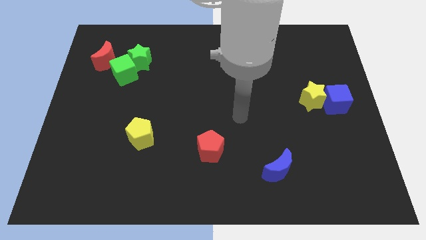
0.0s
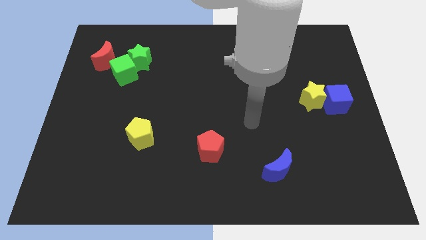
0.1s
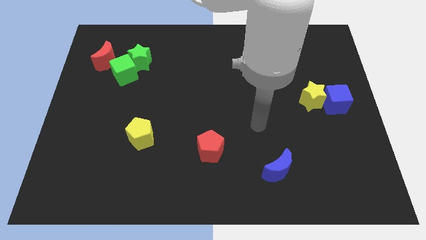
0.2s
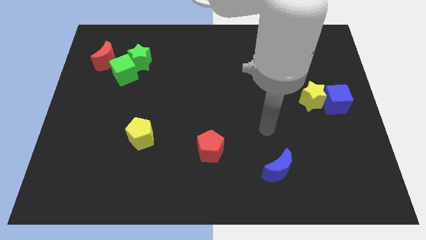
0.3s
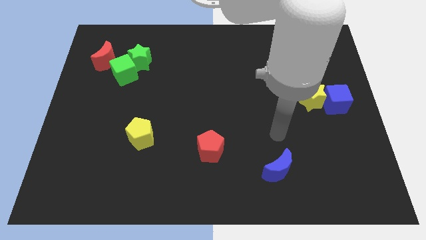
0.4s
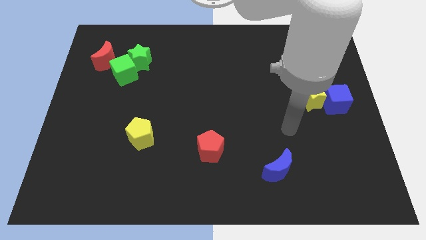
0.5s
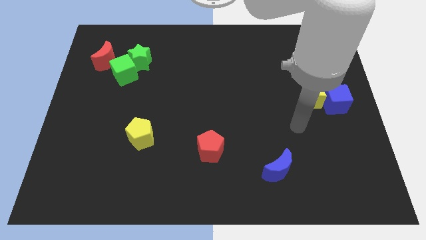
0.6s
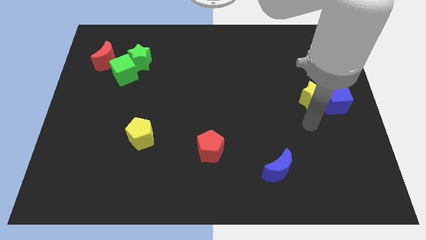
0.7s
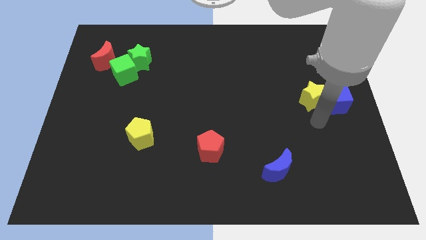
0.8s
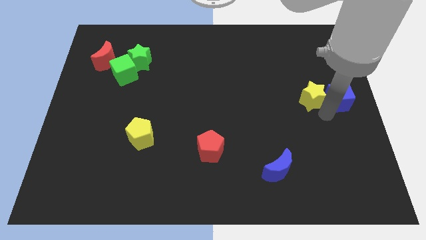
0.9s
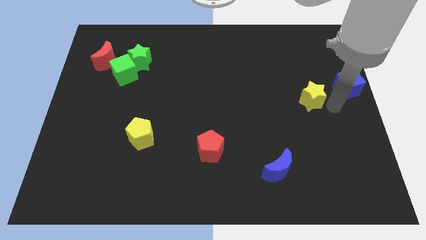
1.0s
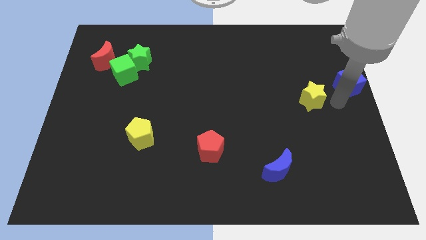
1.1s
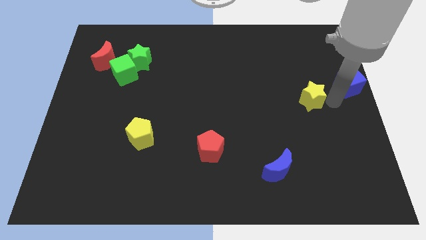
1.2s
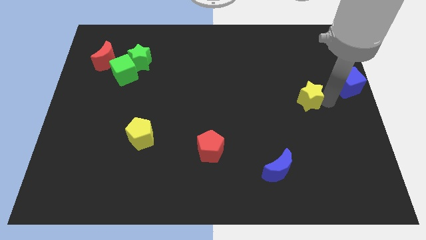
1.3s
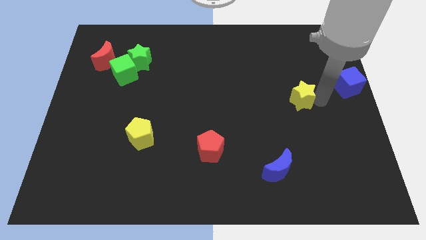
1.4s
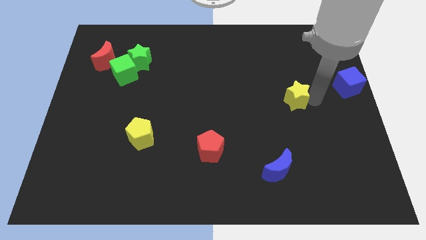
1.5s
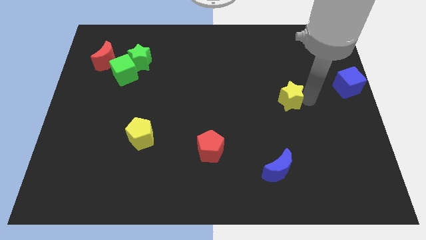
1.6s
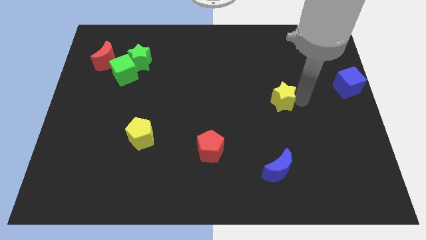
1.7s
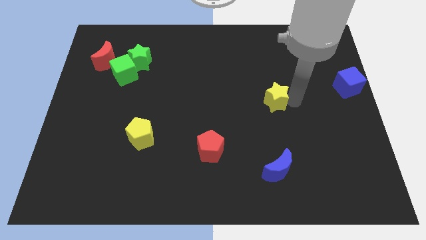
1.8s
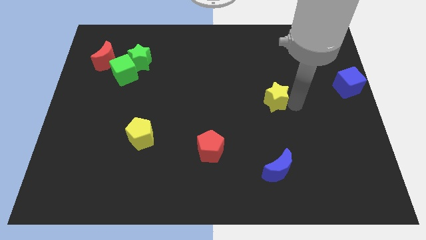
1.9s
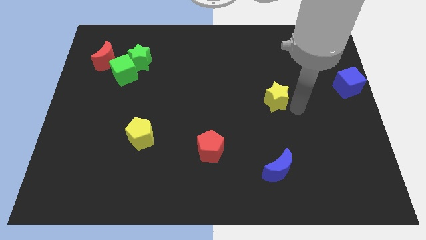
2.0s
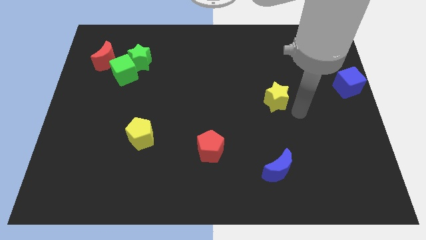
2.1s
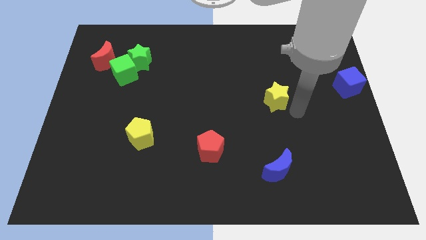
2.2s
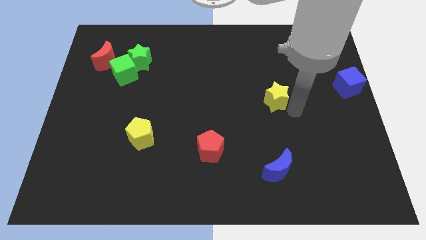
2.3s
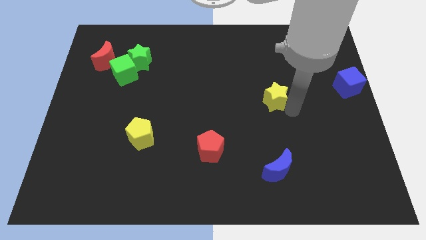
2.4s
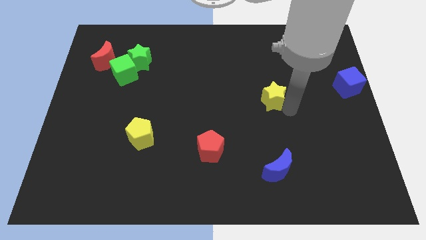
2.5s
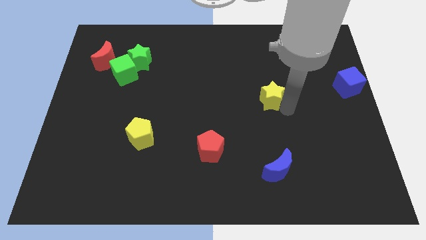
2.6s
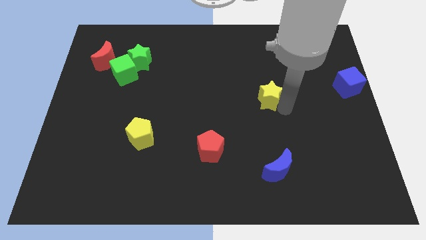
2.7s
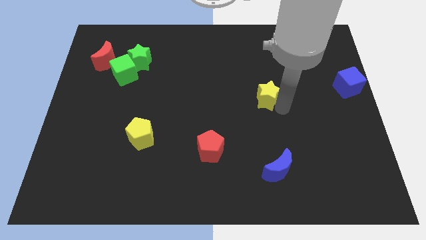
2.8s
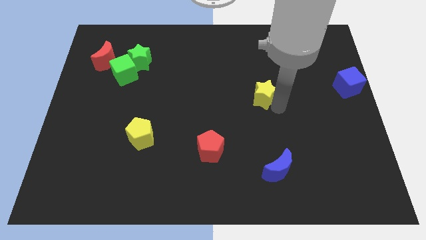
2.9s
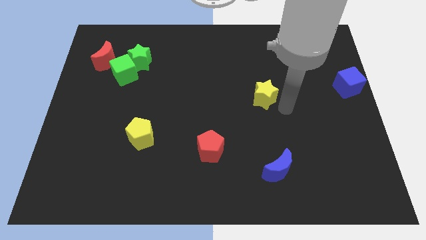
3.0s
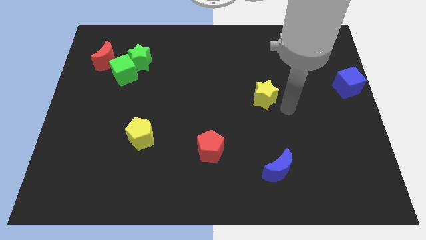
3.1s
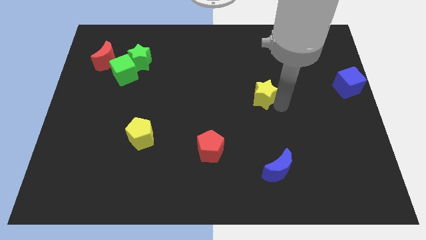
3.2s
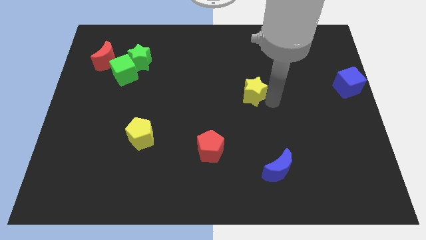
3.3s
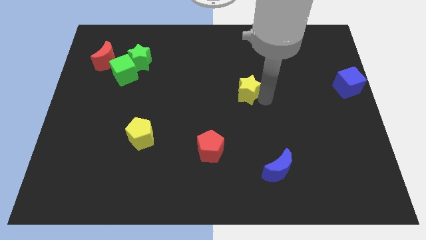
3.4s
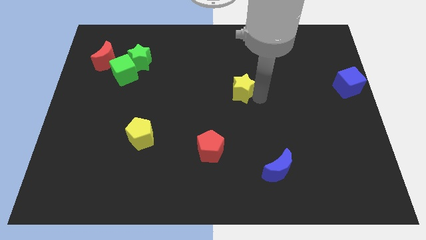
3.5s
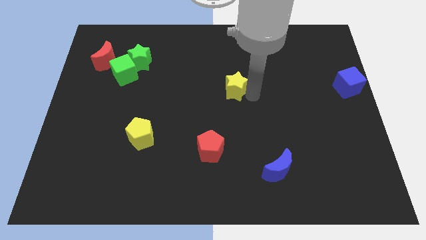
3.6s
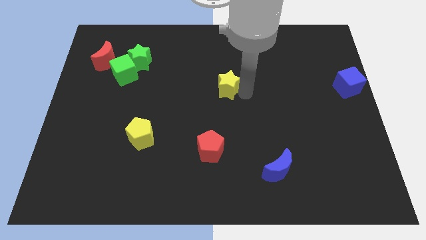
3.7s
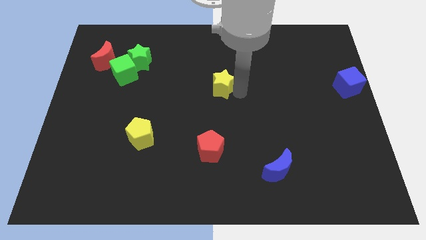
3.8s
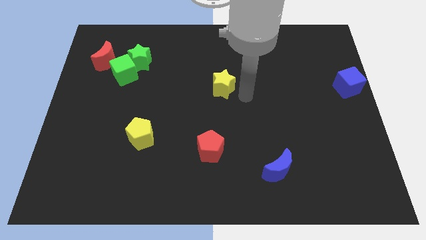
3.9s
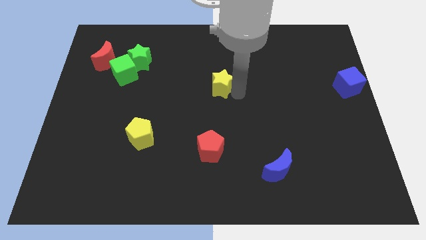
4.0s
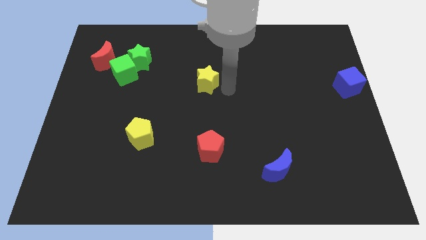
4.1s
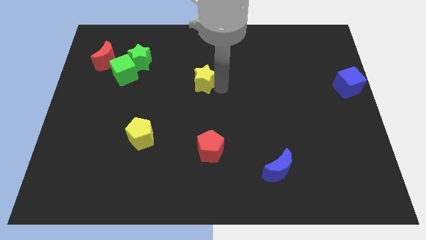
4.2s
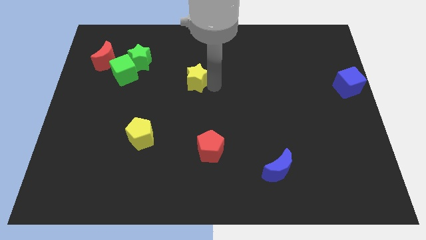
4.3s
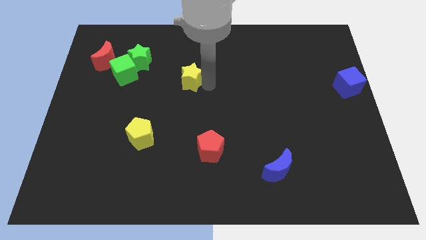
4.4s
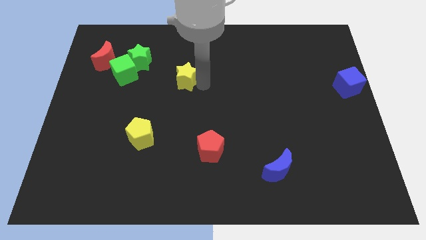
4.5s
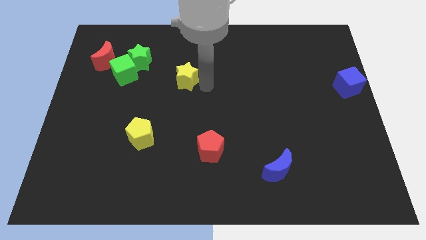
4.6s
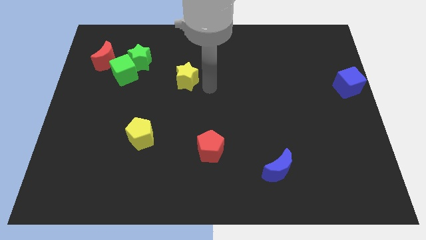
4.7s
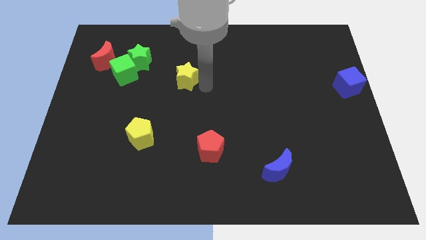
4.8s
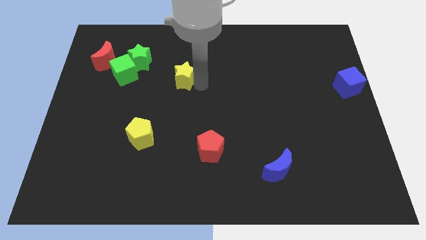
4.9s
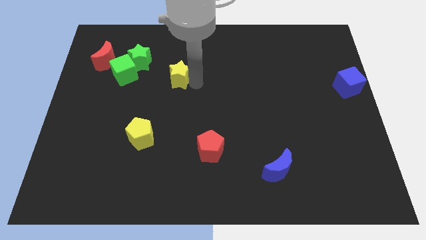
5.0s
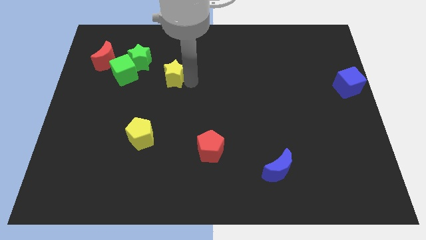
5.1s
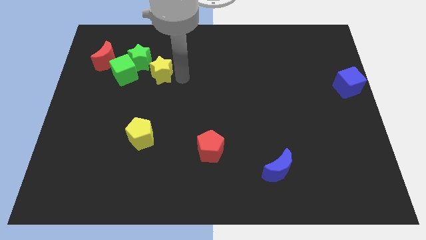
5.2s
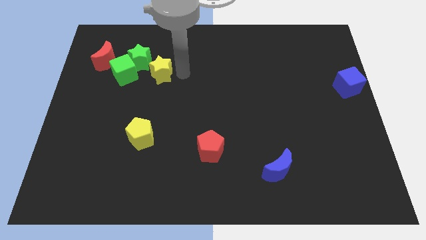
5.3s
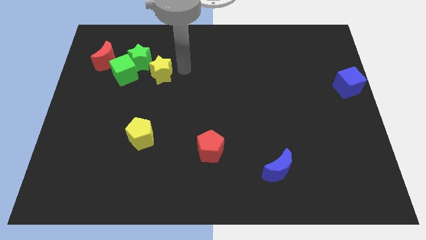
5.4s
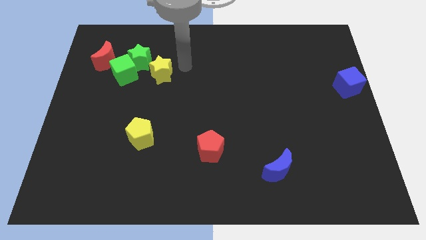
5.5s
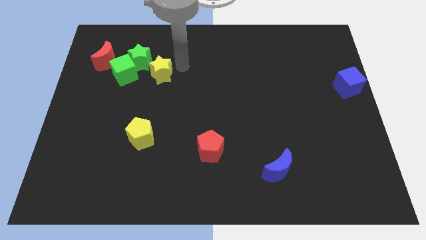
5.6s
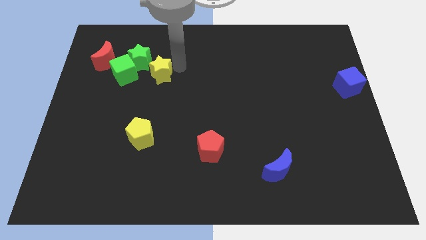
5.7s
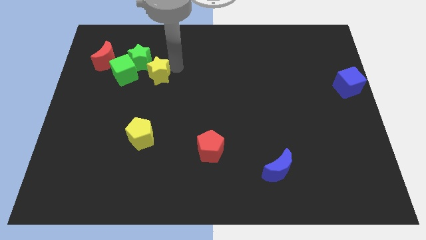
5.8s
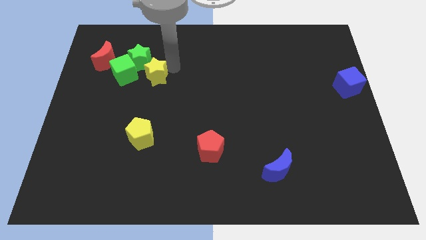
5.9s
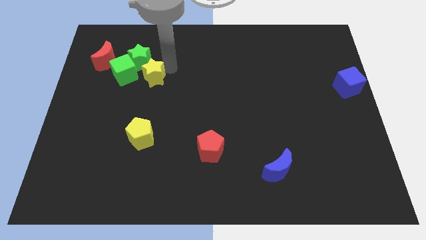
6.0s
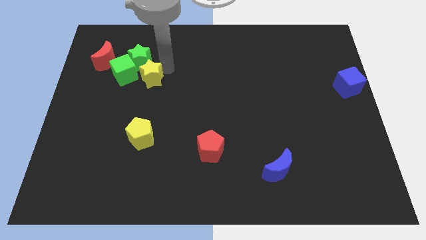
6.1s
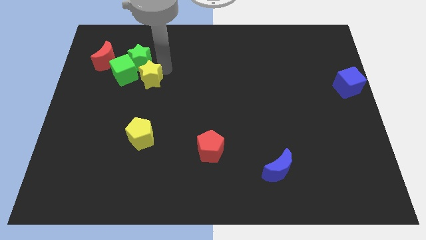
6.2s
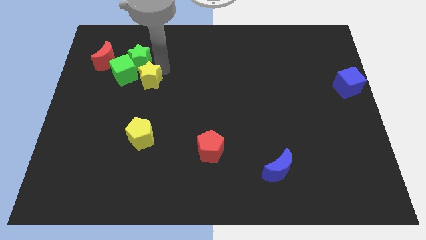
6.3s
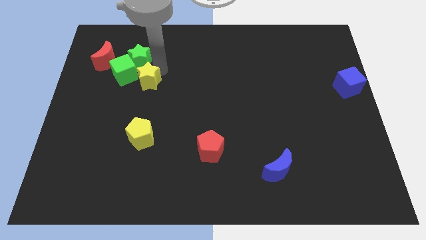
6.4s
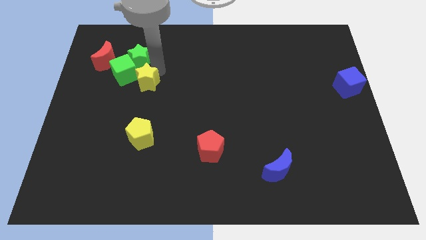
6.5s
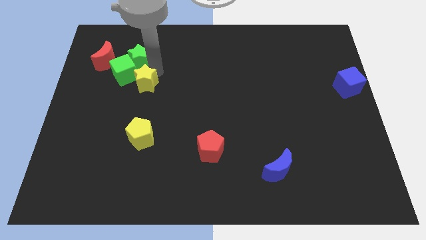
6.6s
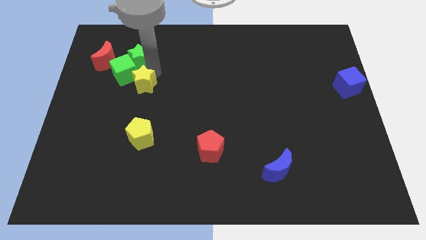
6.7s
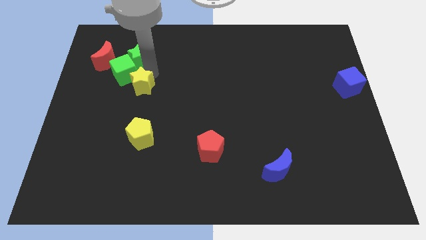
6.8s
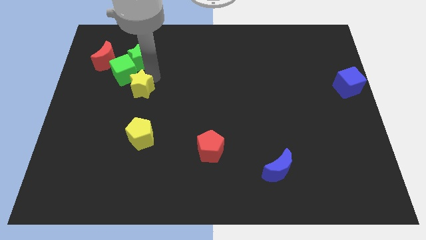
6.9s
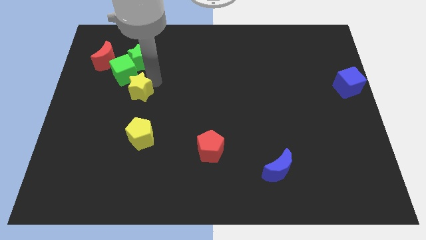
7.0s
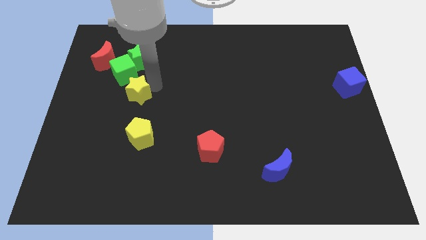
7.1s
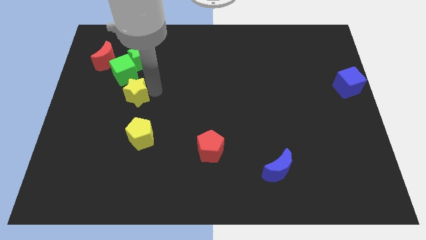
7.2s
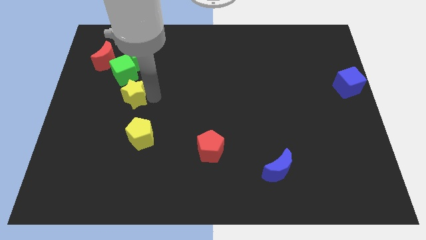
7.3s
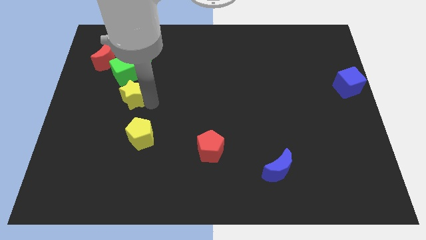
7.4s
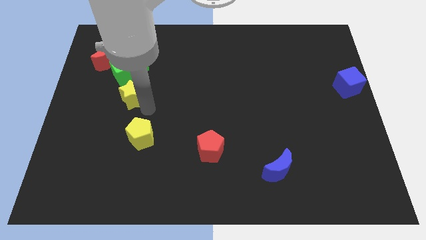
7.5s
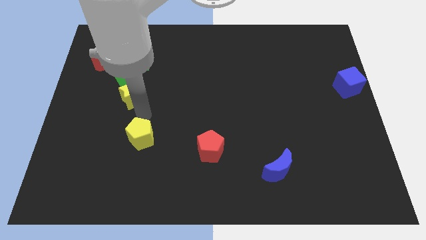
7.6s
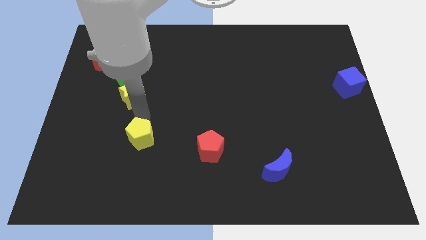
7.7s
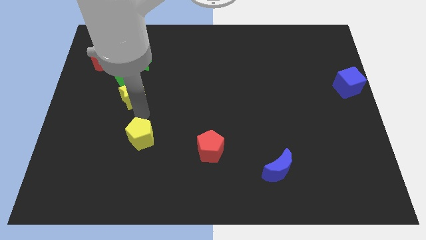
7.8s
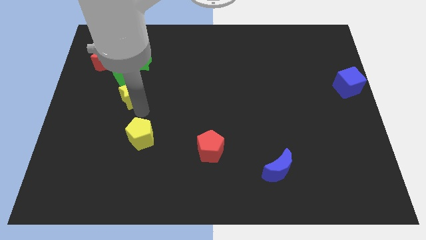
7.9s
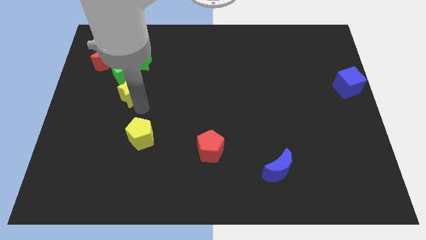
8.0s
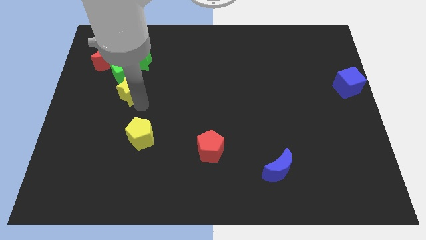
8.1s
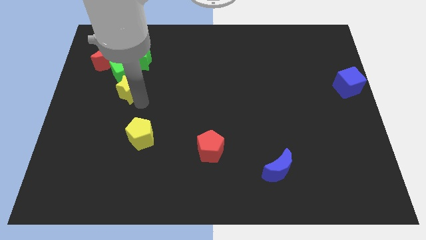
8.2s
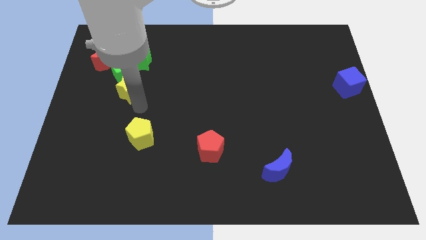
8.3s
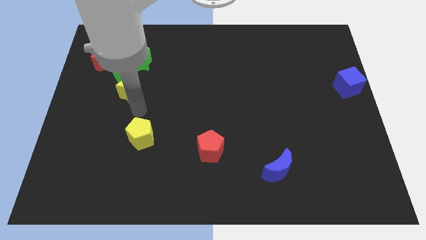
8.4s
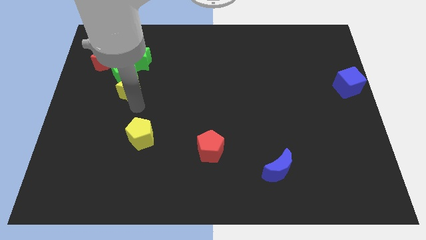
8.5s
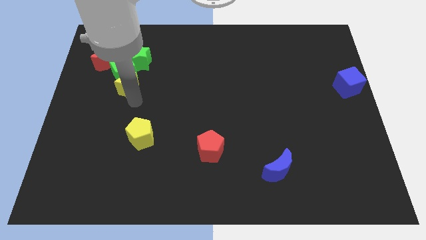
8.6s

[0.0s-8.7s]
move the yellow star diagonally down and to the right of the red moon
